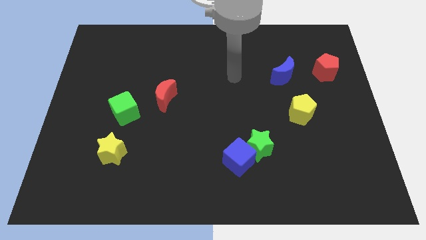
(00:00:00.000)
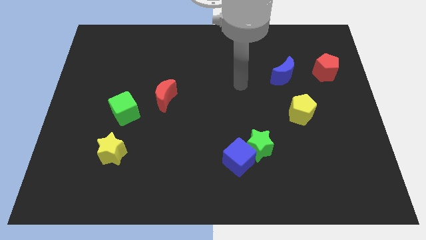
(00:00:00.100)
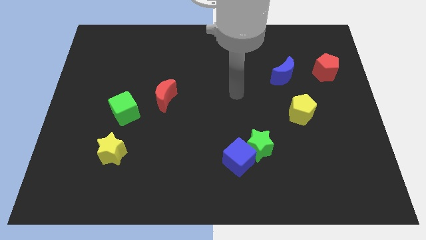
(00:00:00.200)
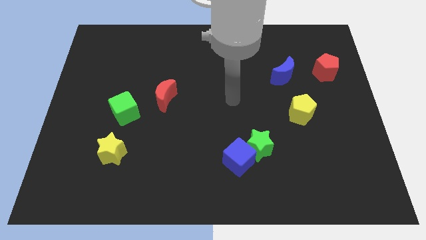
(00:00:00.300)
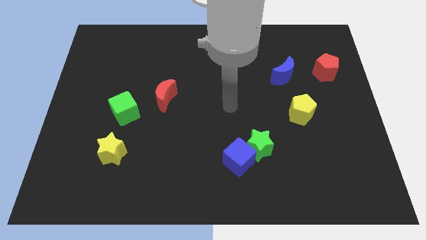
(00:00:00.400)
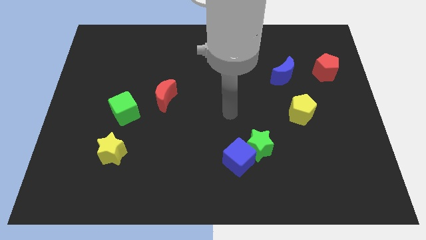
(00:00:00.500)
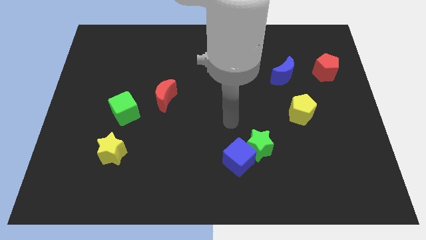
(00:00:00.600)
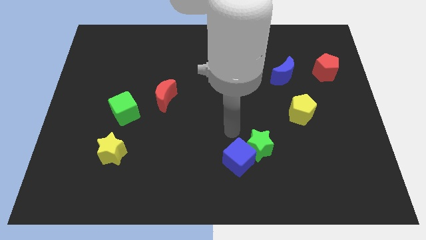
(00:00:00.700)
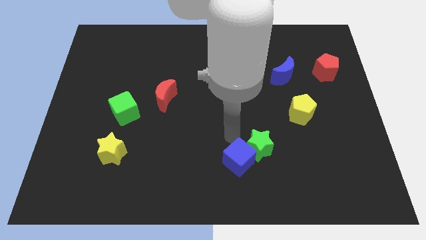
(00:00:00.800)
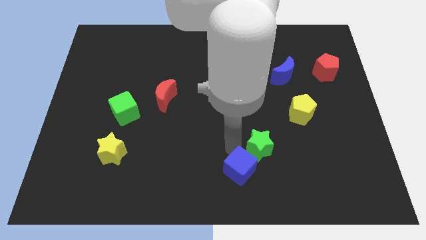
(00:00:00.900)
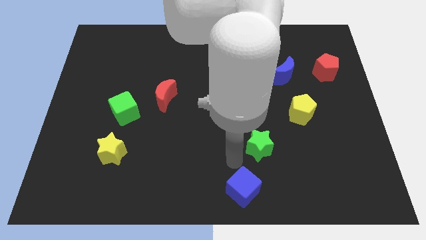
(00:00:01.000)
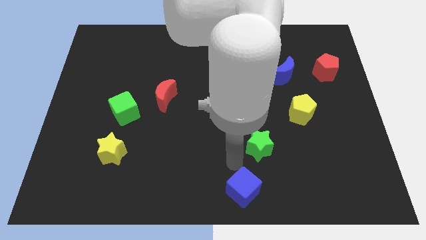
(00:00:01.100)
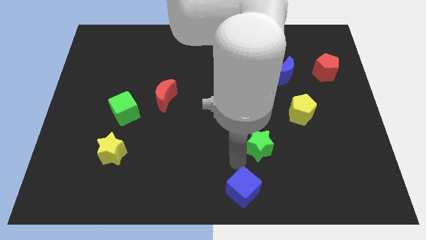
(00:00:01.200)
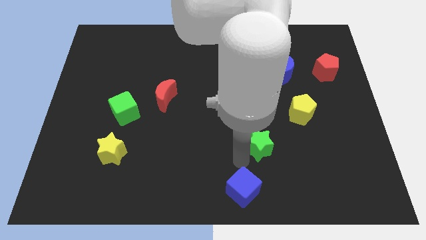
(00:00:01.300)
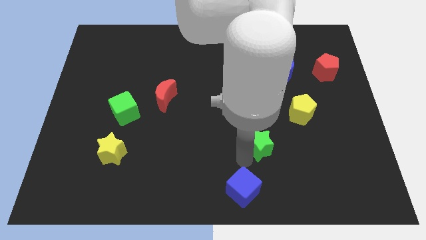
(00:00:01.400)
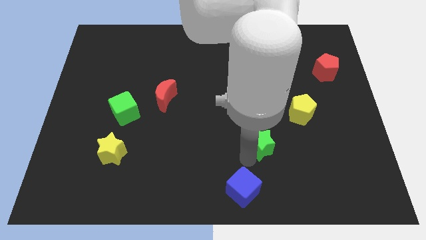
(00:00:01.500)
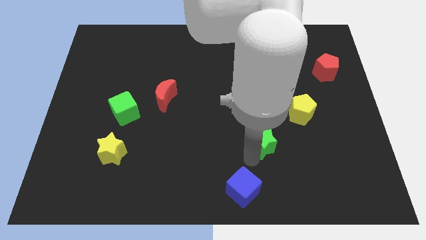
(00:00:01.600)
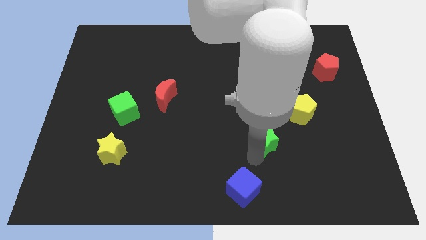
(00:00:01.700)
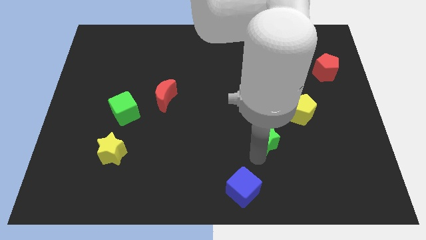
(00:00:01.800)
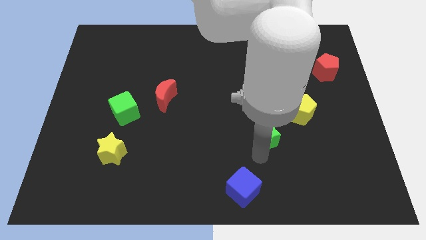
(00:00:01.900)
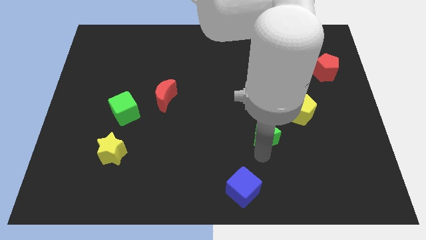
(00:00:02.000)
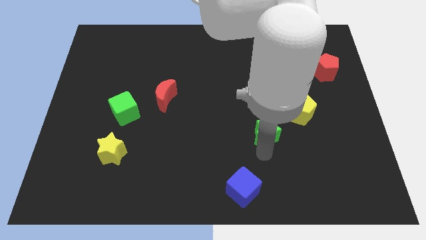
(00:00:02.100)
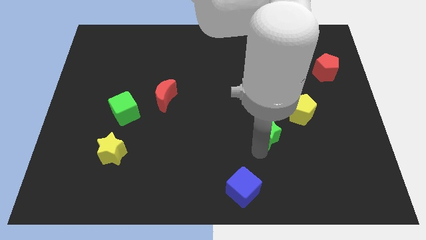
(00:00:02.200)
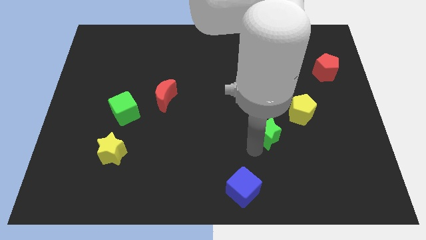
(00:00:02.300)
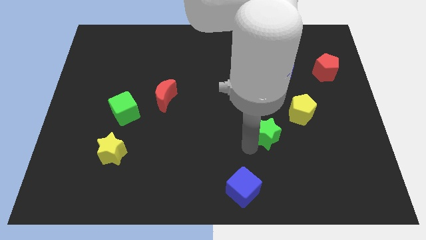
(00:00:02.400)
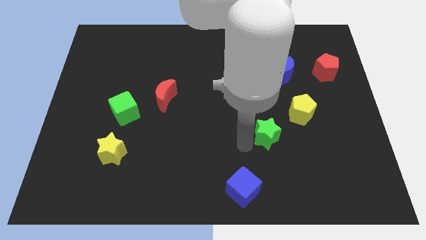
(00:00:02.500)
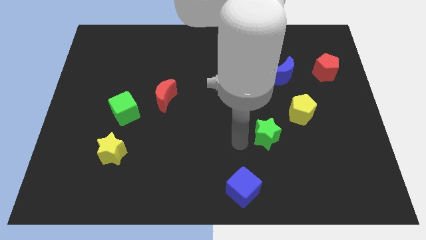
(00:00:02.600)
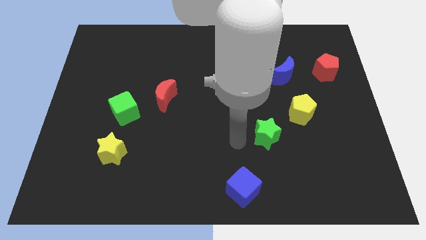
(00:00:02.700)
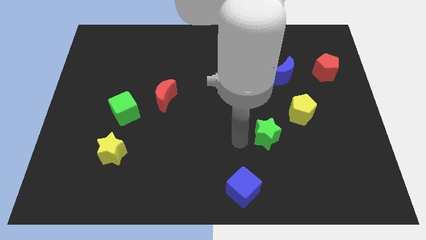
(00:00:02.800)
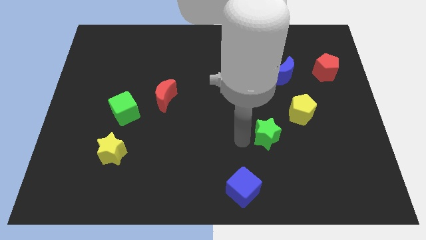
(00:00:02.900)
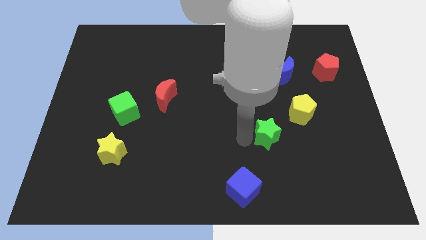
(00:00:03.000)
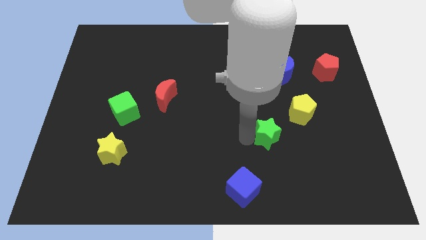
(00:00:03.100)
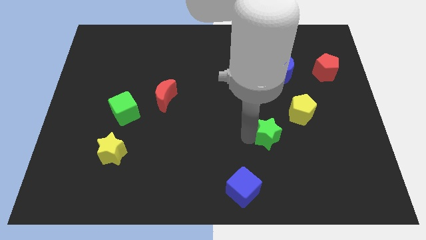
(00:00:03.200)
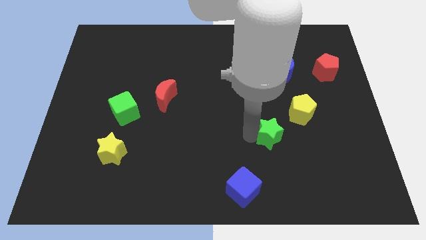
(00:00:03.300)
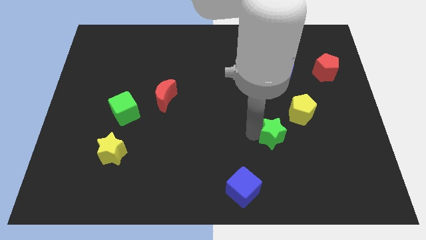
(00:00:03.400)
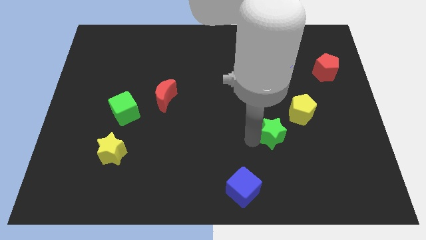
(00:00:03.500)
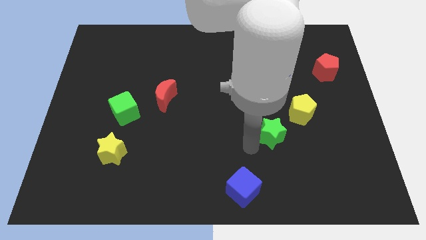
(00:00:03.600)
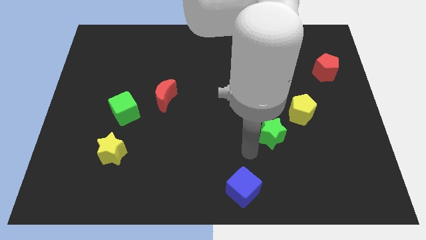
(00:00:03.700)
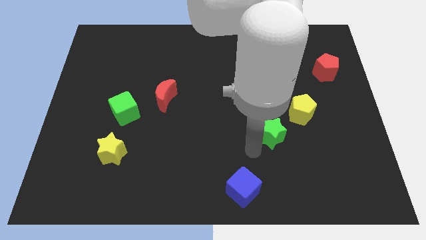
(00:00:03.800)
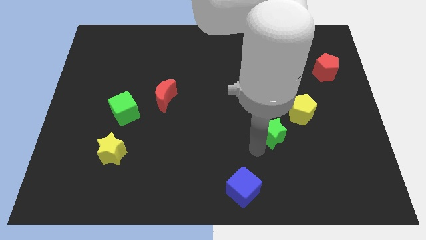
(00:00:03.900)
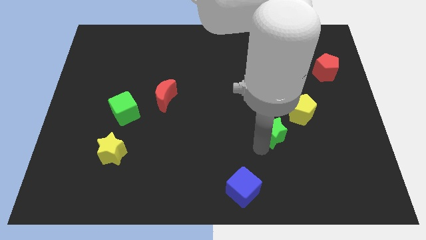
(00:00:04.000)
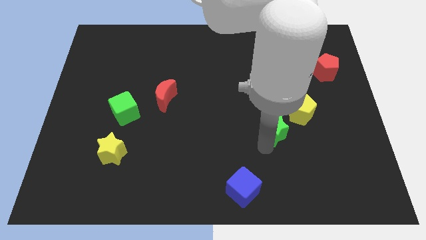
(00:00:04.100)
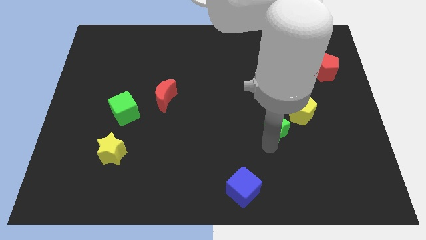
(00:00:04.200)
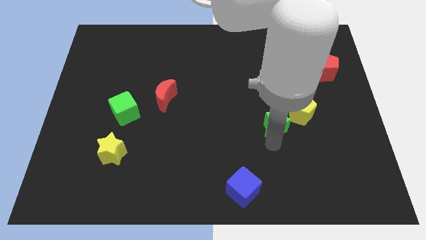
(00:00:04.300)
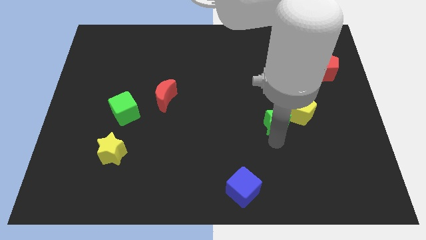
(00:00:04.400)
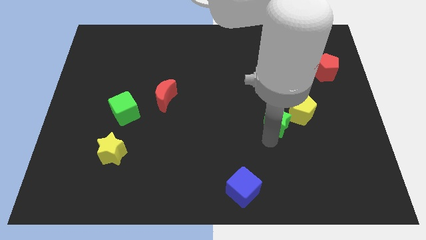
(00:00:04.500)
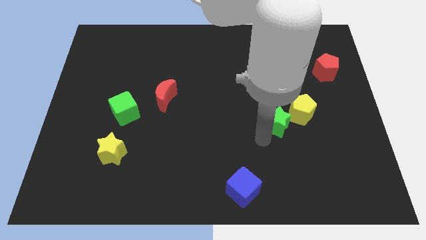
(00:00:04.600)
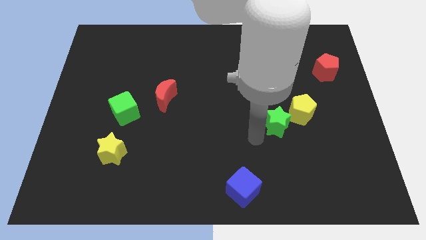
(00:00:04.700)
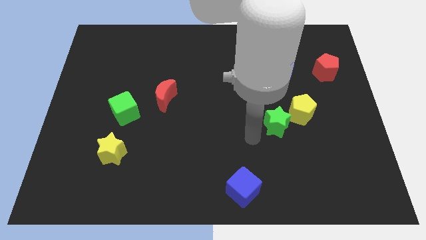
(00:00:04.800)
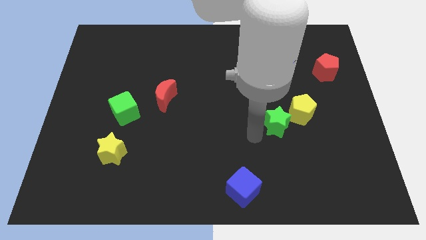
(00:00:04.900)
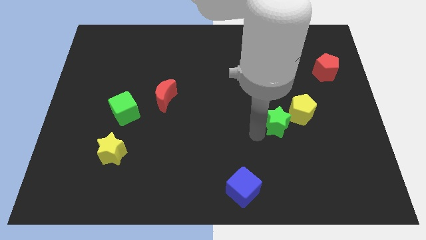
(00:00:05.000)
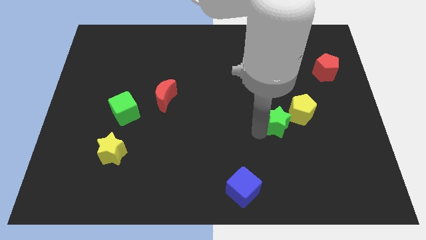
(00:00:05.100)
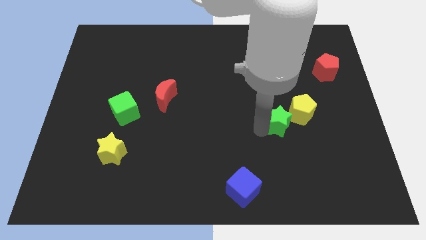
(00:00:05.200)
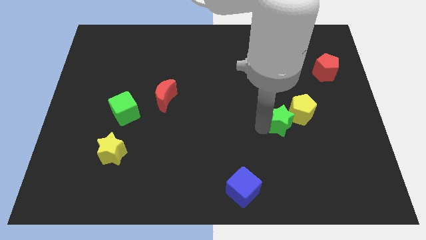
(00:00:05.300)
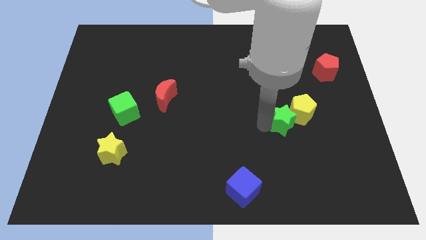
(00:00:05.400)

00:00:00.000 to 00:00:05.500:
slide the green star towards the yellow pentagon

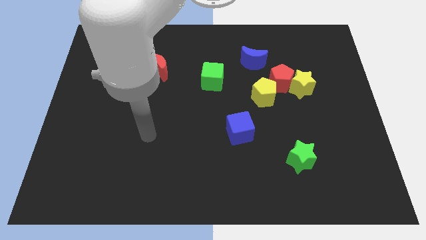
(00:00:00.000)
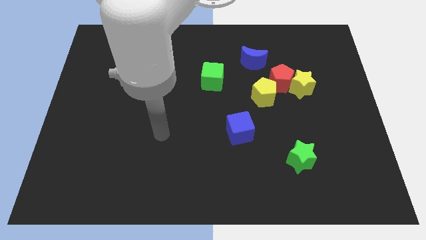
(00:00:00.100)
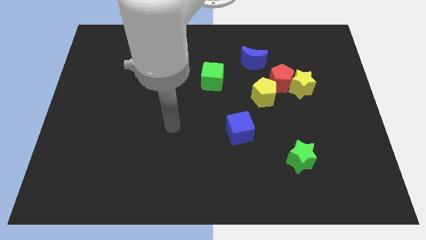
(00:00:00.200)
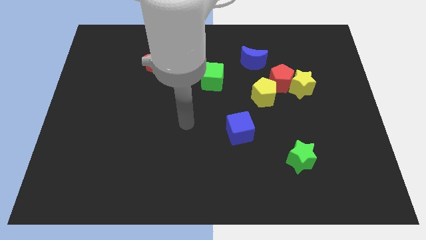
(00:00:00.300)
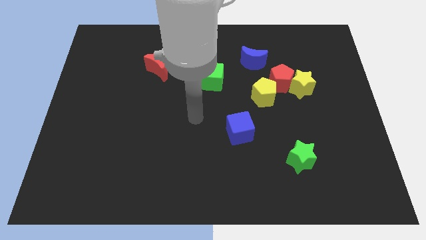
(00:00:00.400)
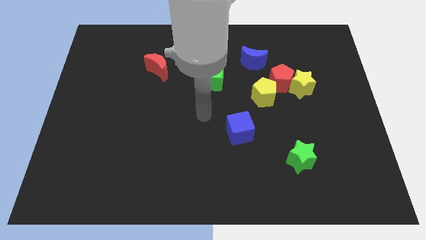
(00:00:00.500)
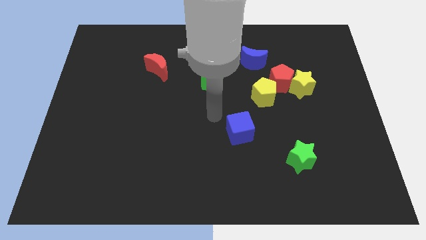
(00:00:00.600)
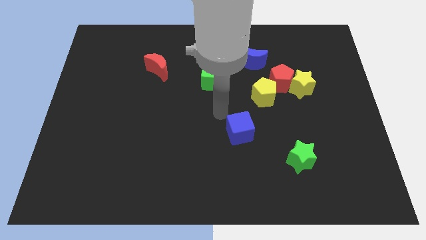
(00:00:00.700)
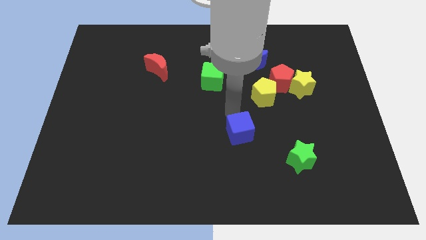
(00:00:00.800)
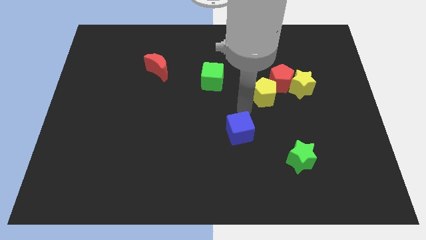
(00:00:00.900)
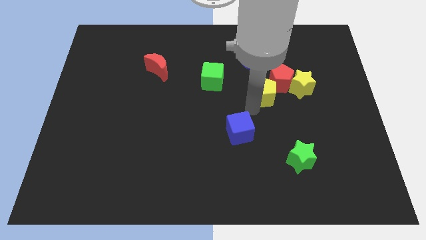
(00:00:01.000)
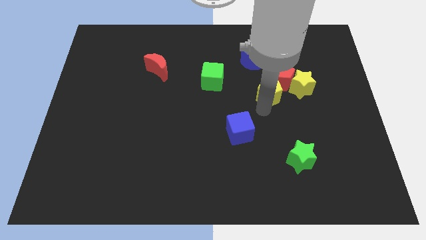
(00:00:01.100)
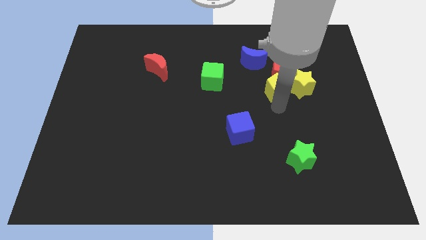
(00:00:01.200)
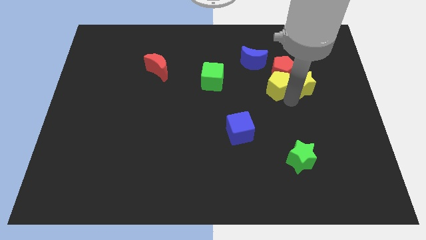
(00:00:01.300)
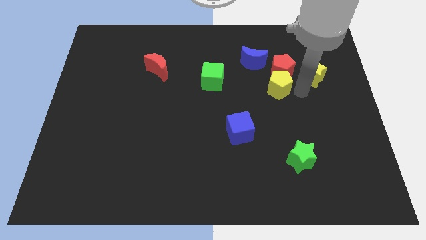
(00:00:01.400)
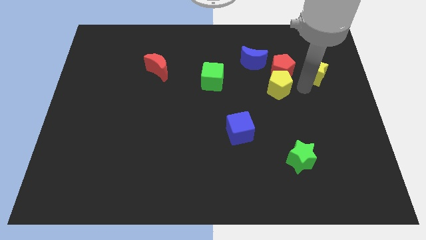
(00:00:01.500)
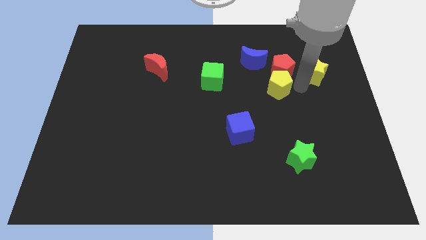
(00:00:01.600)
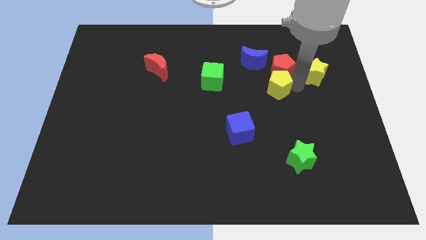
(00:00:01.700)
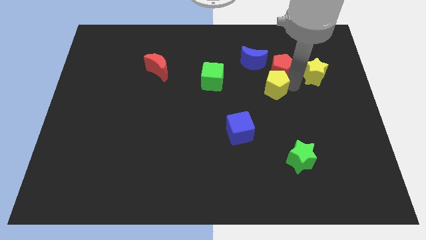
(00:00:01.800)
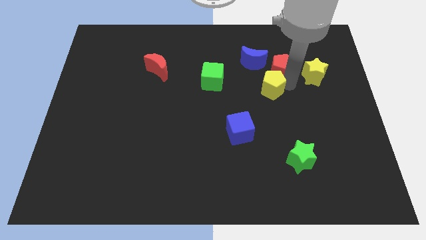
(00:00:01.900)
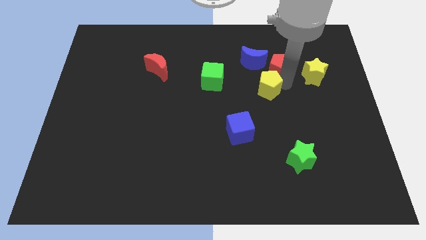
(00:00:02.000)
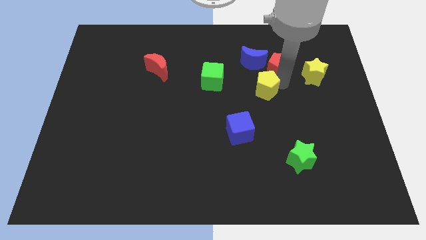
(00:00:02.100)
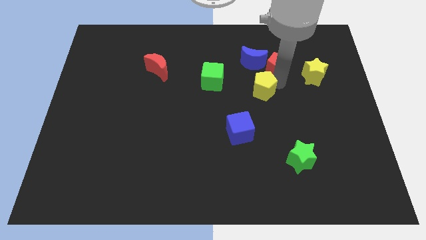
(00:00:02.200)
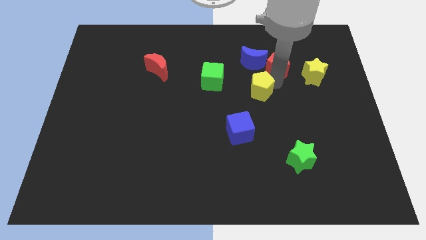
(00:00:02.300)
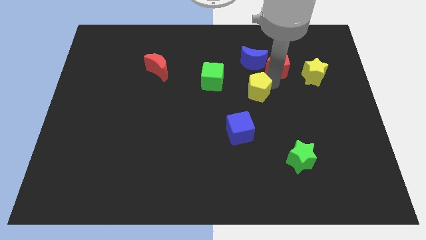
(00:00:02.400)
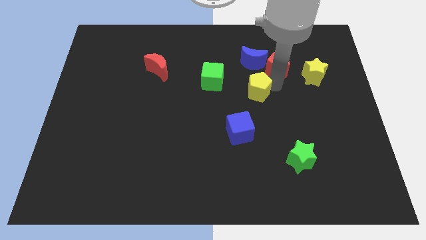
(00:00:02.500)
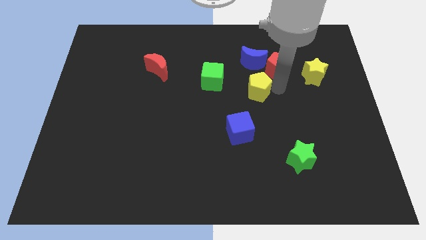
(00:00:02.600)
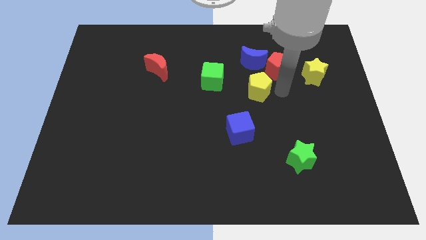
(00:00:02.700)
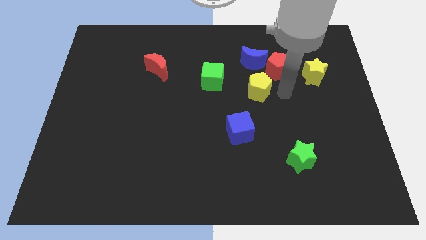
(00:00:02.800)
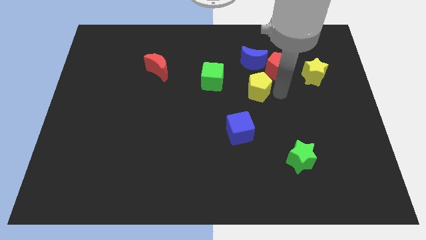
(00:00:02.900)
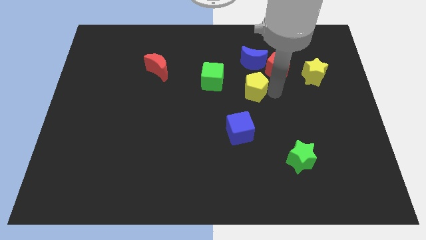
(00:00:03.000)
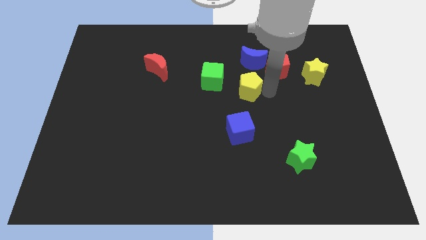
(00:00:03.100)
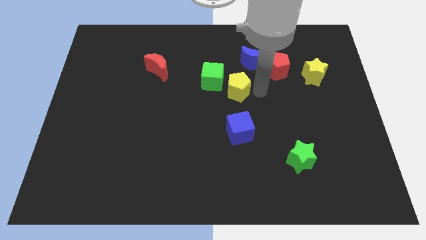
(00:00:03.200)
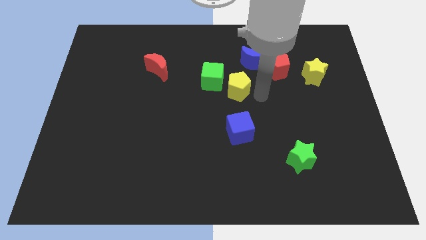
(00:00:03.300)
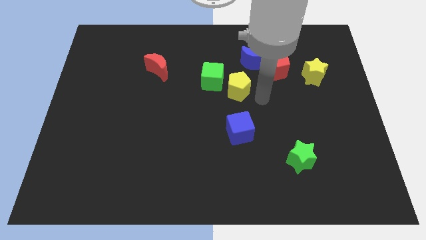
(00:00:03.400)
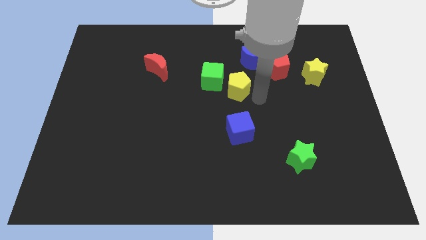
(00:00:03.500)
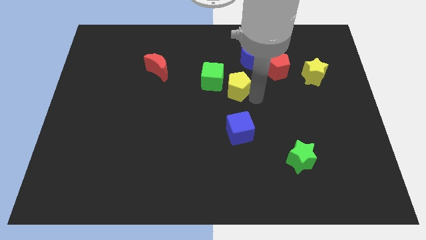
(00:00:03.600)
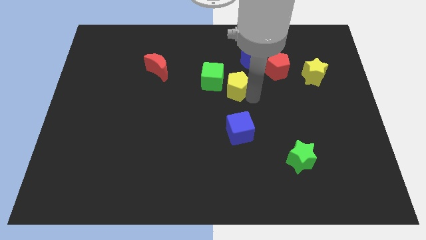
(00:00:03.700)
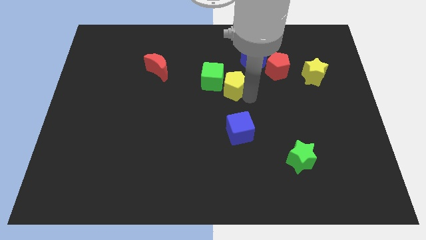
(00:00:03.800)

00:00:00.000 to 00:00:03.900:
move the yellow pentagon to the green cube
